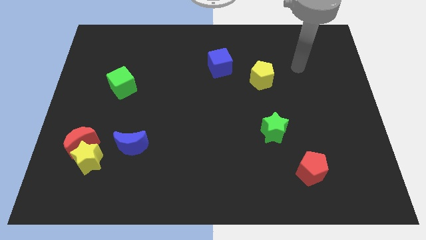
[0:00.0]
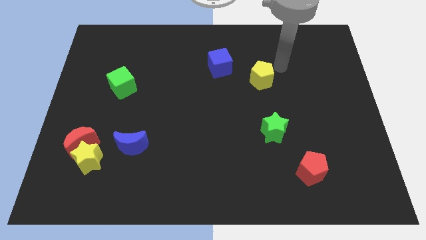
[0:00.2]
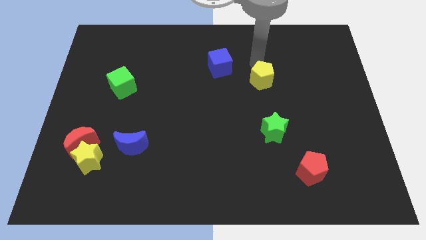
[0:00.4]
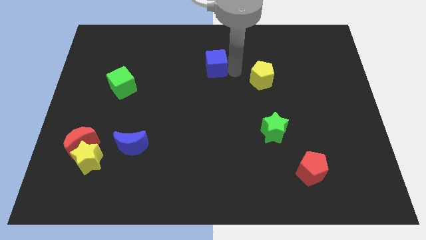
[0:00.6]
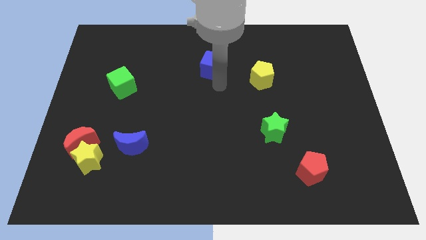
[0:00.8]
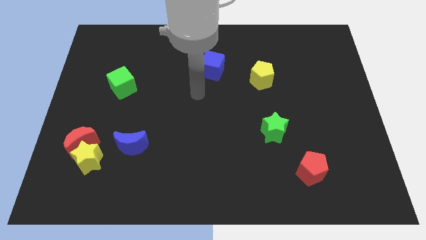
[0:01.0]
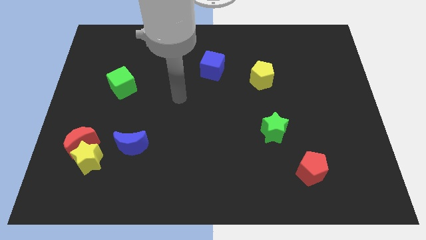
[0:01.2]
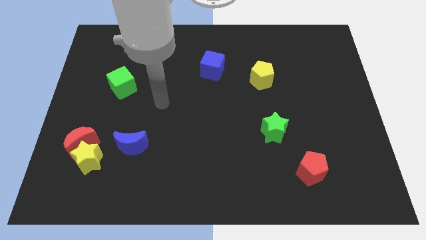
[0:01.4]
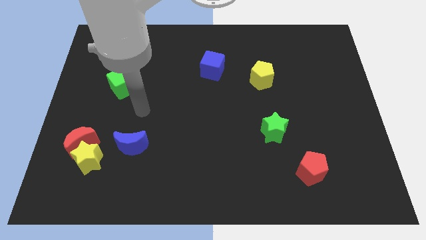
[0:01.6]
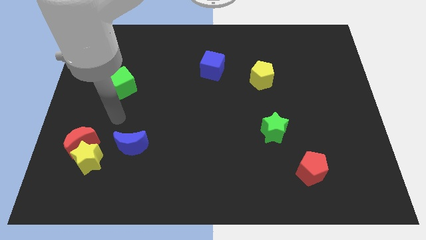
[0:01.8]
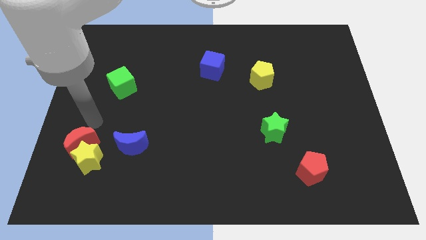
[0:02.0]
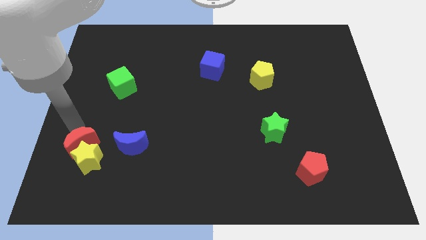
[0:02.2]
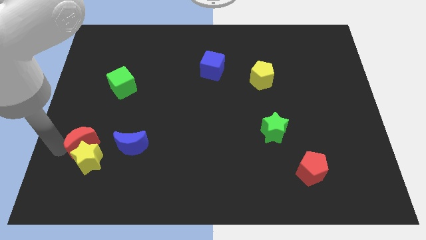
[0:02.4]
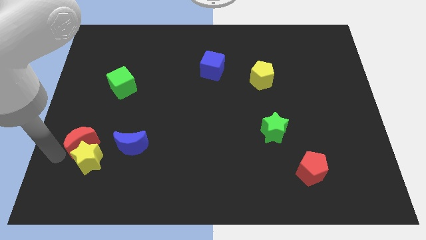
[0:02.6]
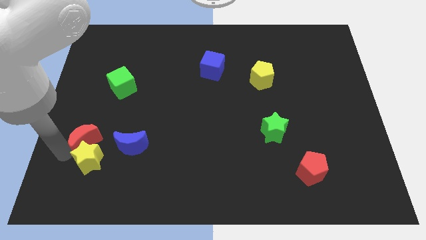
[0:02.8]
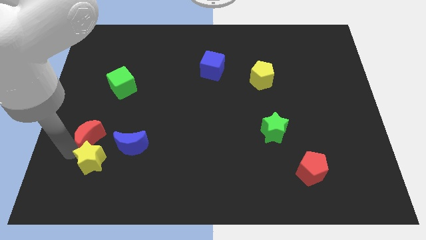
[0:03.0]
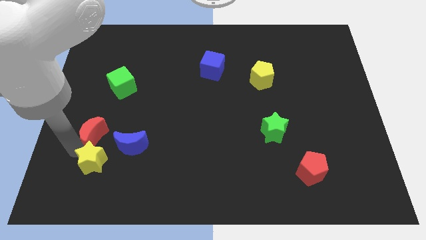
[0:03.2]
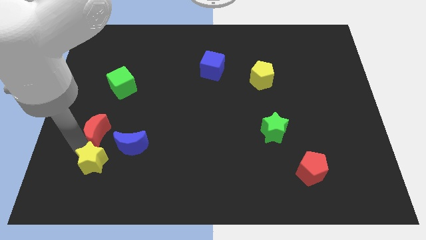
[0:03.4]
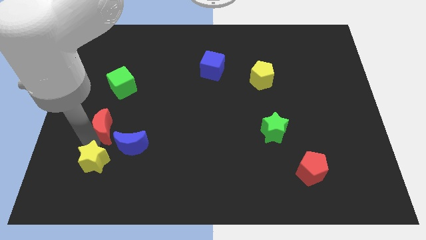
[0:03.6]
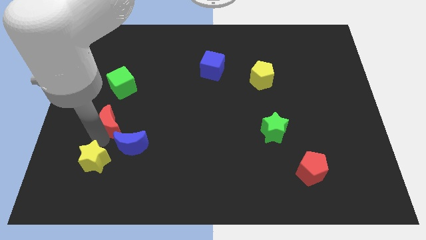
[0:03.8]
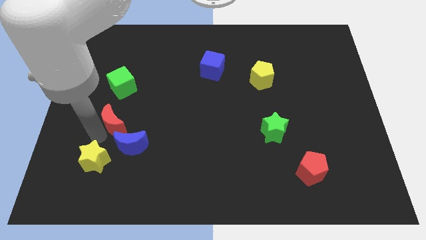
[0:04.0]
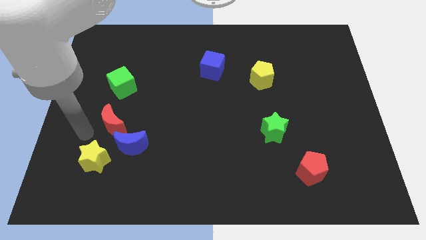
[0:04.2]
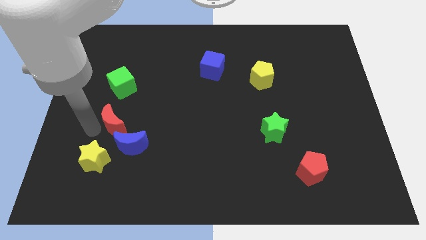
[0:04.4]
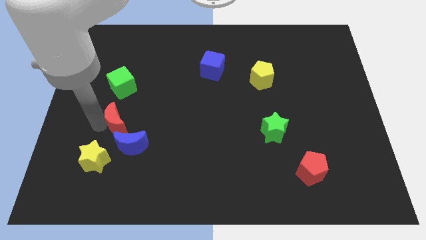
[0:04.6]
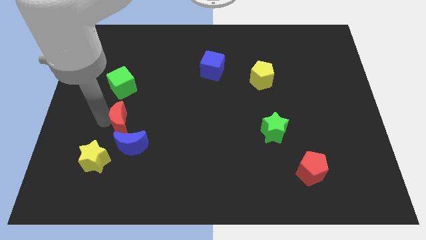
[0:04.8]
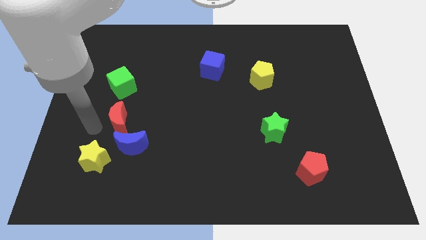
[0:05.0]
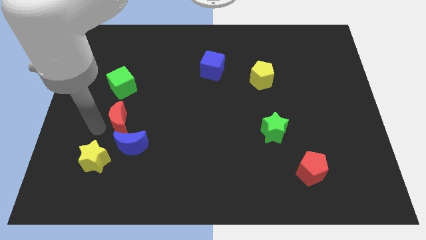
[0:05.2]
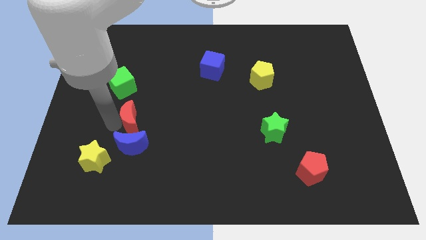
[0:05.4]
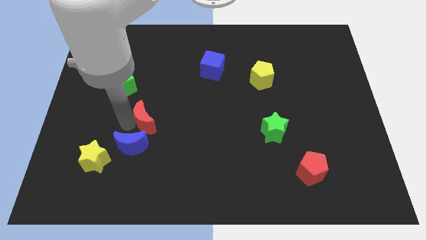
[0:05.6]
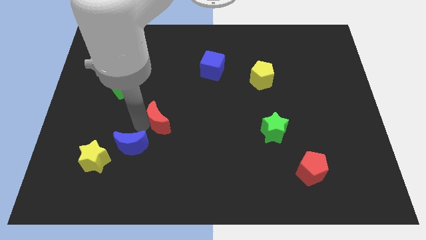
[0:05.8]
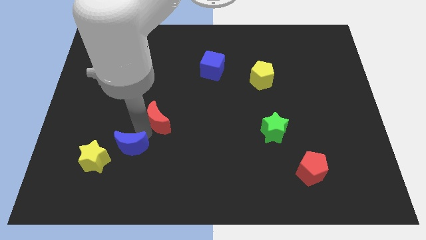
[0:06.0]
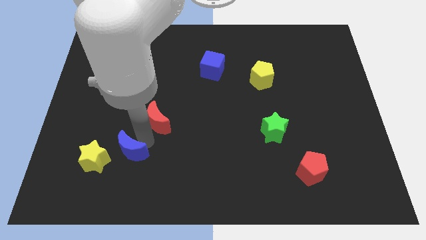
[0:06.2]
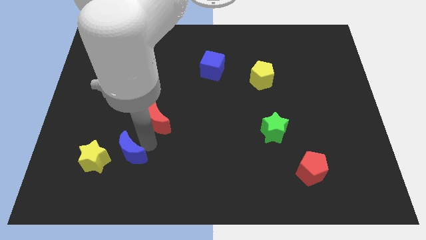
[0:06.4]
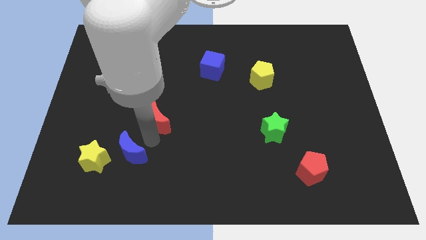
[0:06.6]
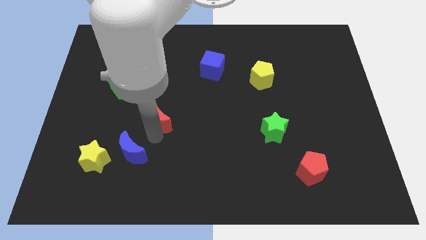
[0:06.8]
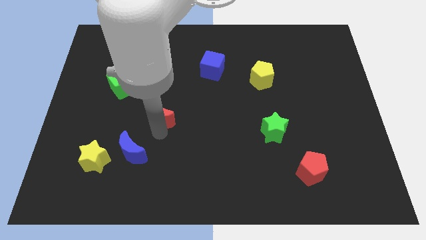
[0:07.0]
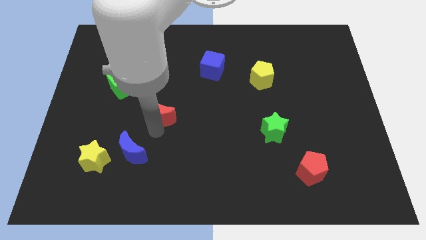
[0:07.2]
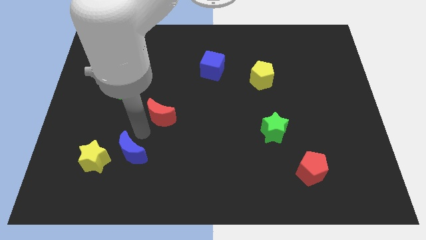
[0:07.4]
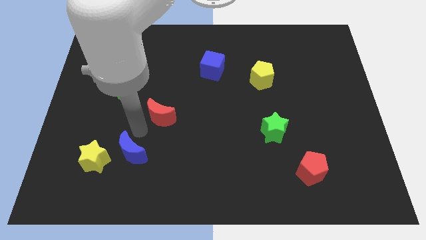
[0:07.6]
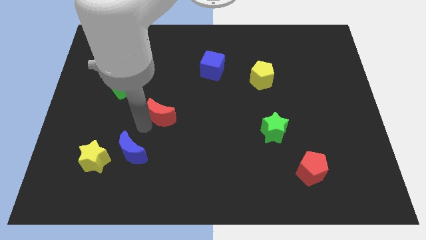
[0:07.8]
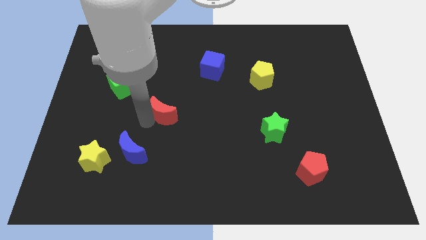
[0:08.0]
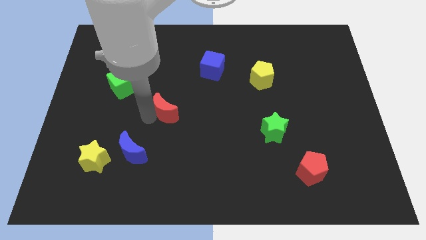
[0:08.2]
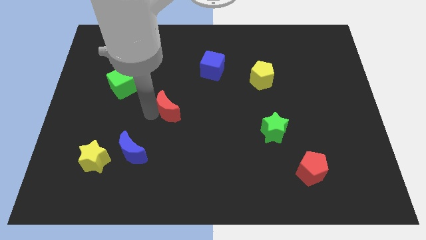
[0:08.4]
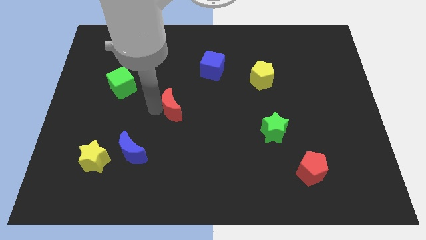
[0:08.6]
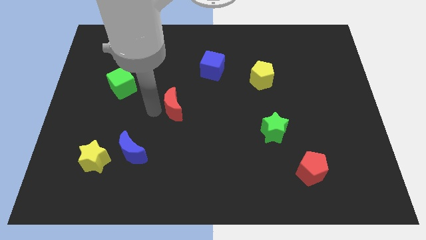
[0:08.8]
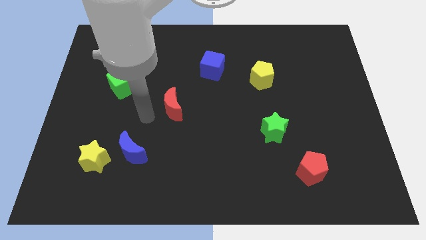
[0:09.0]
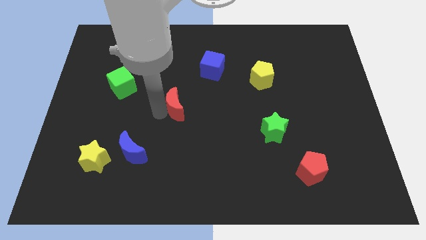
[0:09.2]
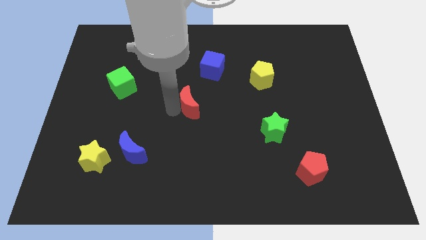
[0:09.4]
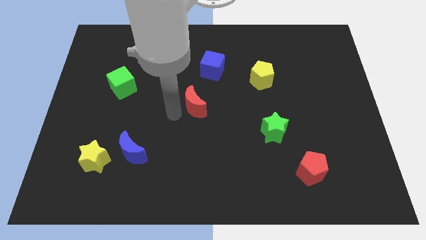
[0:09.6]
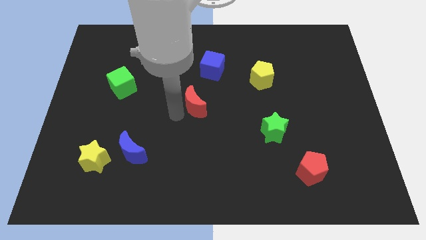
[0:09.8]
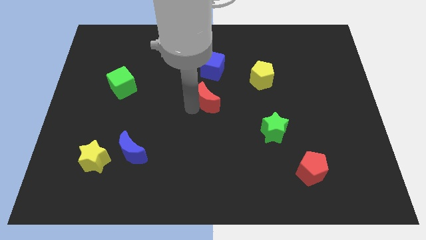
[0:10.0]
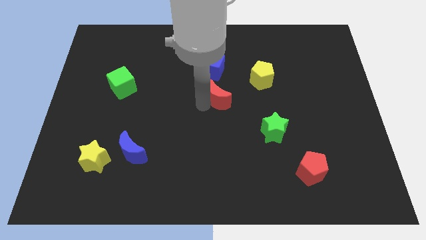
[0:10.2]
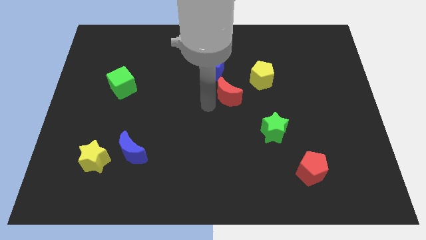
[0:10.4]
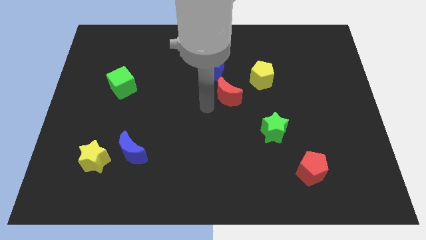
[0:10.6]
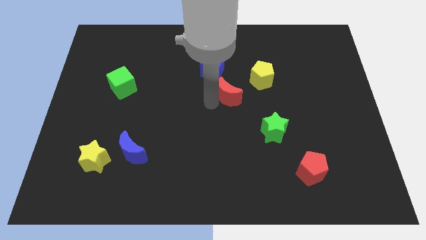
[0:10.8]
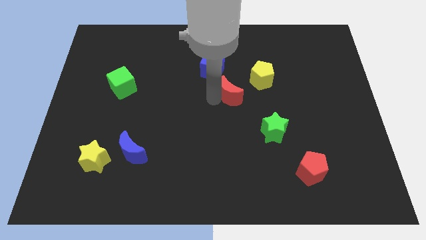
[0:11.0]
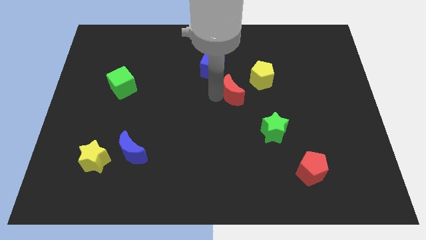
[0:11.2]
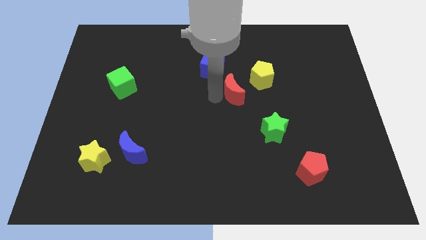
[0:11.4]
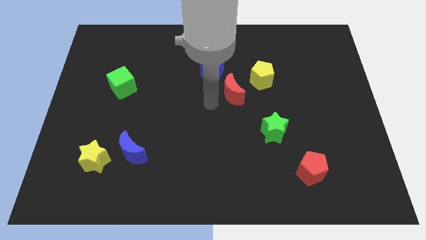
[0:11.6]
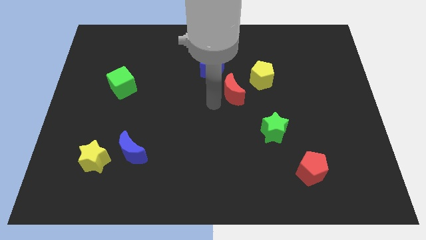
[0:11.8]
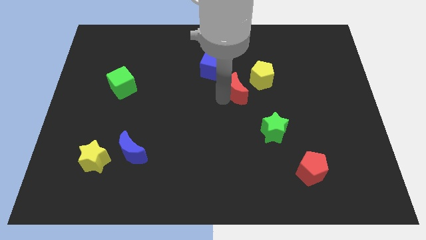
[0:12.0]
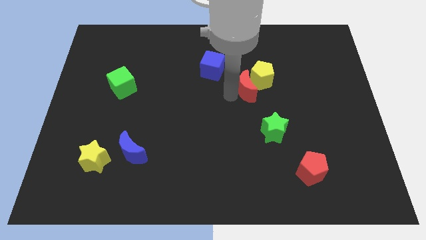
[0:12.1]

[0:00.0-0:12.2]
push the red moon close to the yellow pentagon

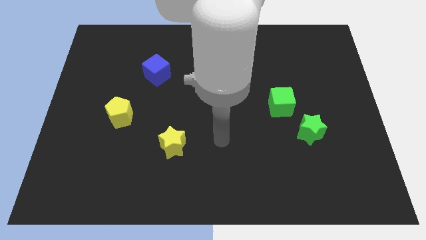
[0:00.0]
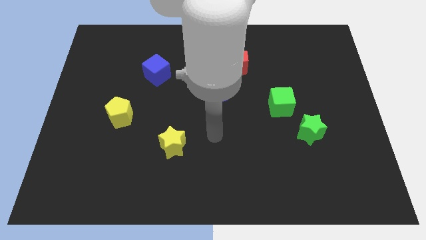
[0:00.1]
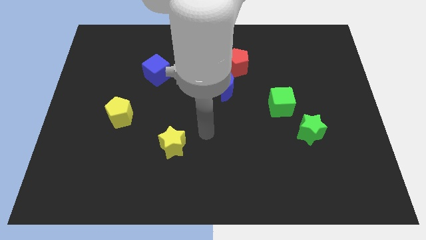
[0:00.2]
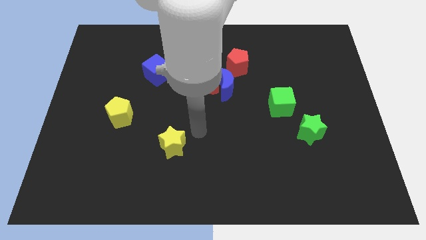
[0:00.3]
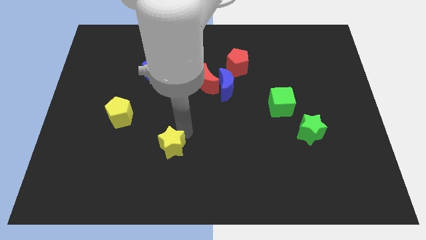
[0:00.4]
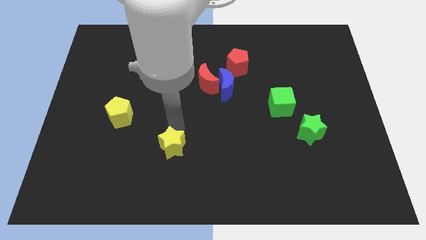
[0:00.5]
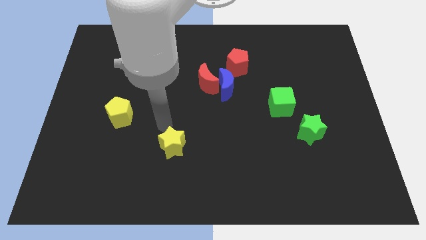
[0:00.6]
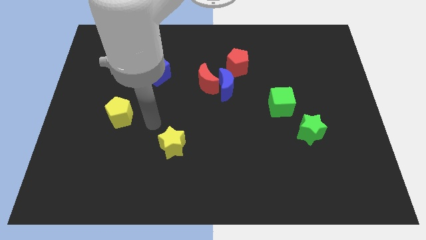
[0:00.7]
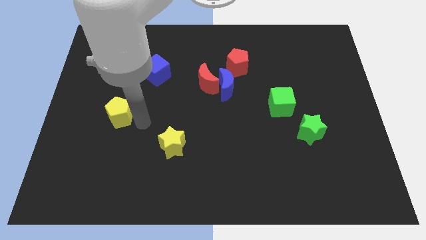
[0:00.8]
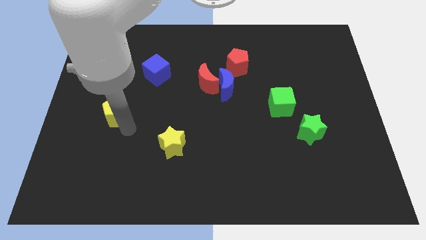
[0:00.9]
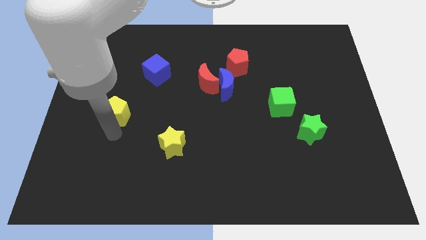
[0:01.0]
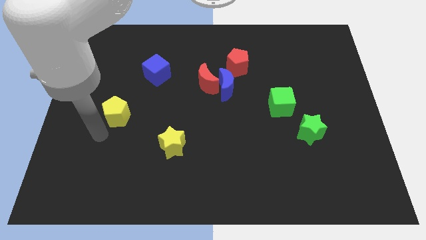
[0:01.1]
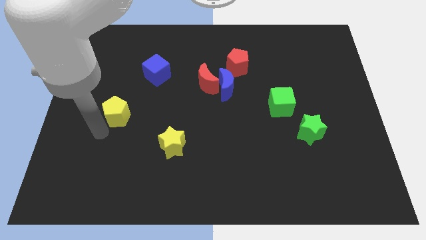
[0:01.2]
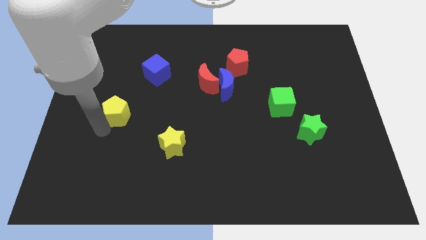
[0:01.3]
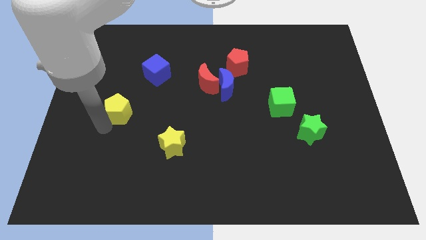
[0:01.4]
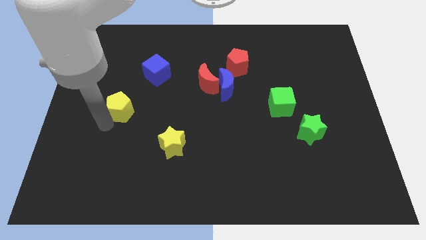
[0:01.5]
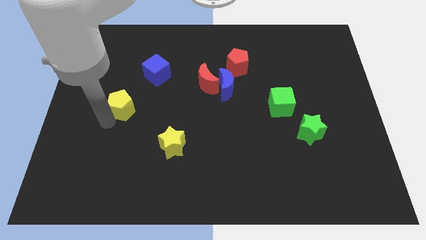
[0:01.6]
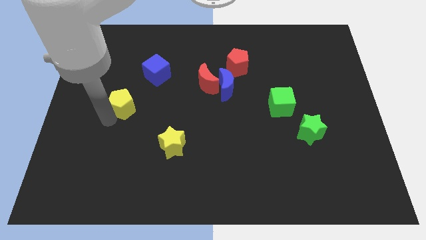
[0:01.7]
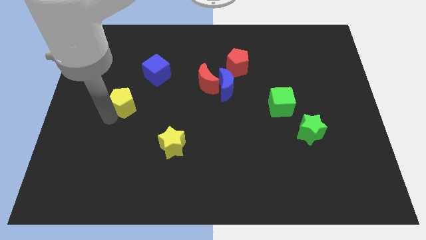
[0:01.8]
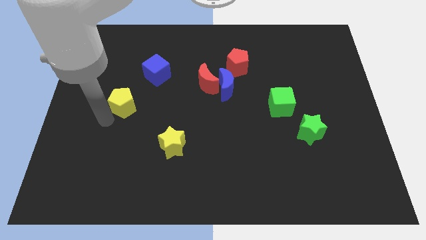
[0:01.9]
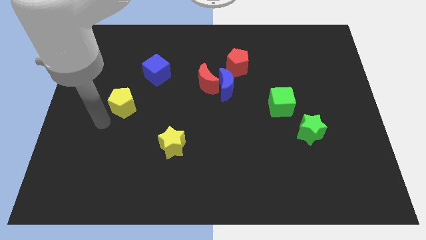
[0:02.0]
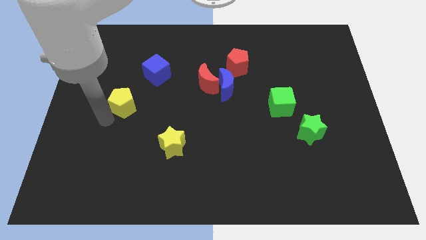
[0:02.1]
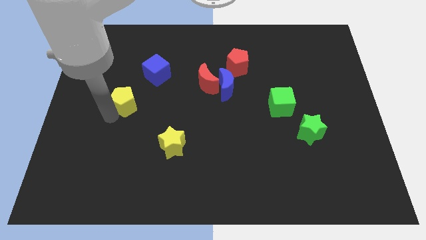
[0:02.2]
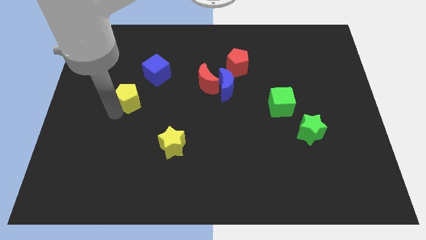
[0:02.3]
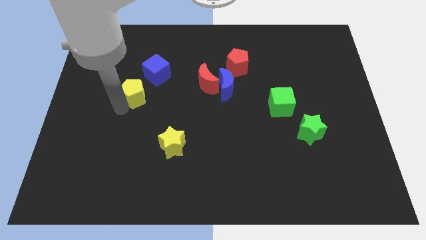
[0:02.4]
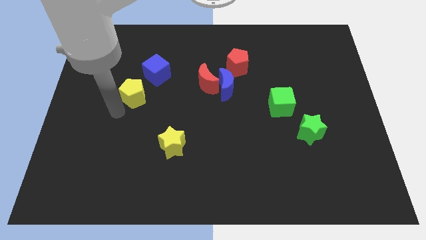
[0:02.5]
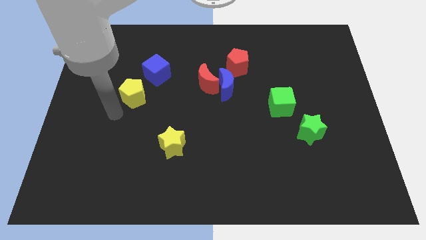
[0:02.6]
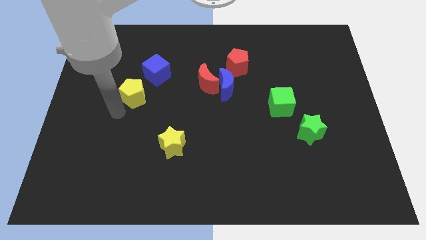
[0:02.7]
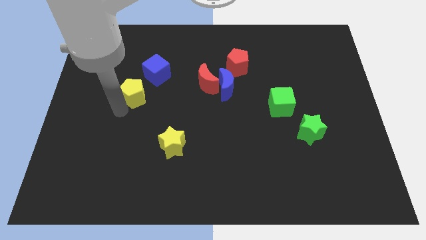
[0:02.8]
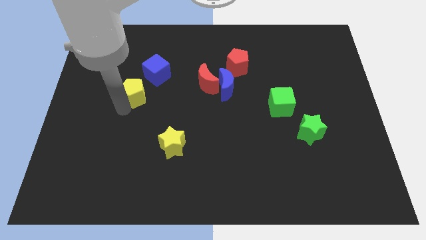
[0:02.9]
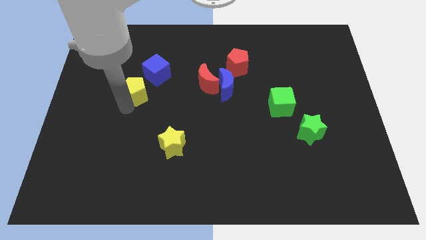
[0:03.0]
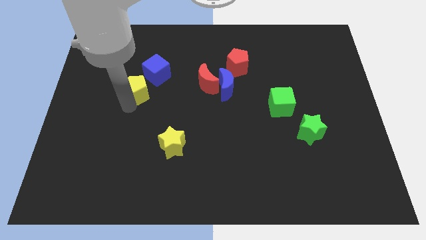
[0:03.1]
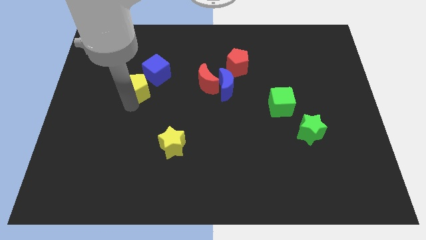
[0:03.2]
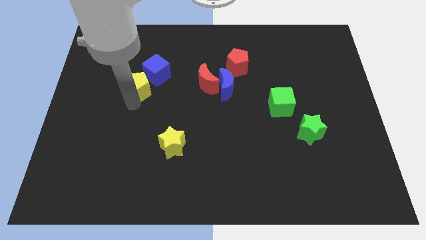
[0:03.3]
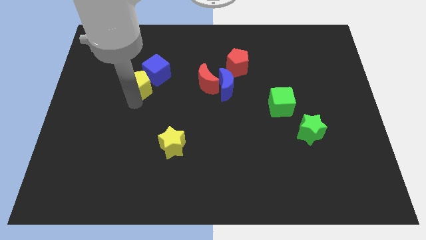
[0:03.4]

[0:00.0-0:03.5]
move the yellow pentagon to the blue cube
